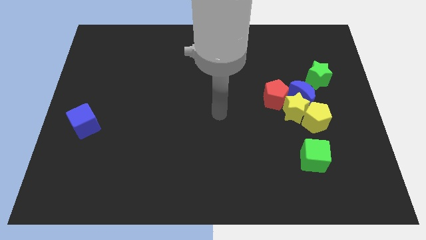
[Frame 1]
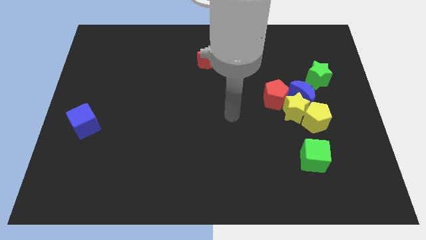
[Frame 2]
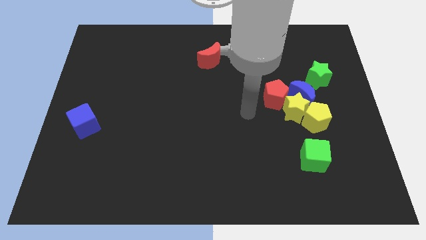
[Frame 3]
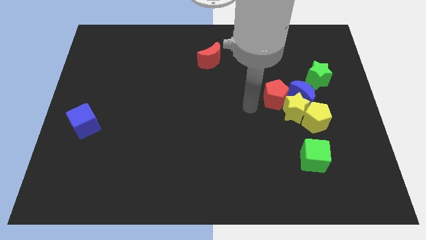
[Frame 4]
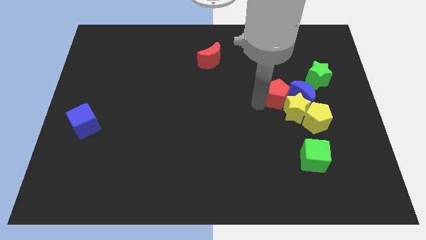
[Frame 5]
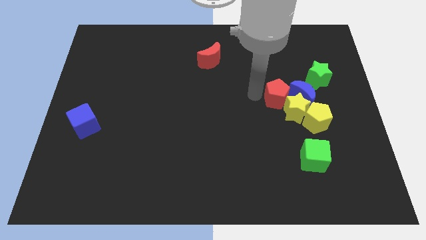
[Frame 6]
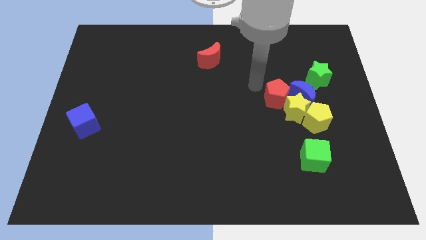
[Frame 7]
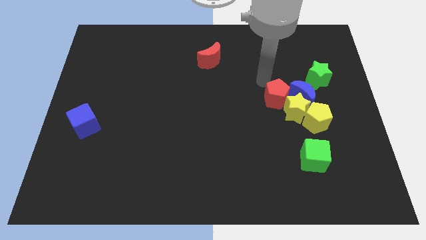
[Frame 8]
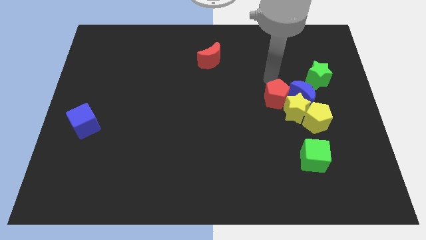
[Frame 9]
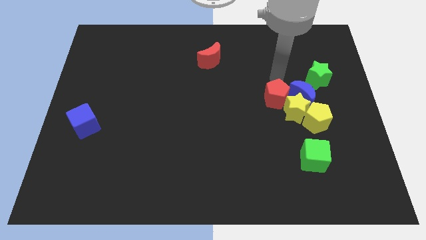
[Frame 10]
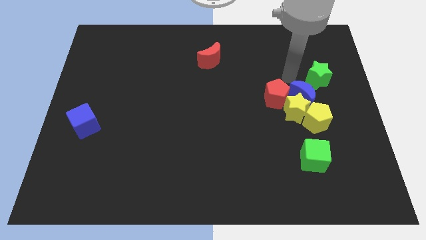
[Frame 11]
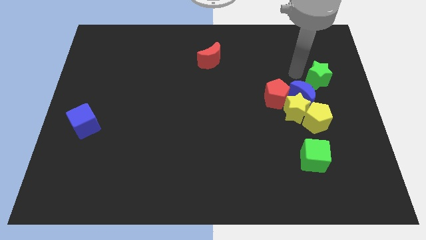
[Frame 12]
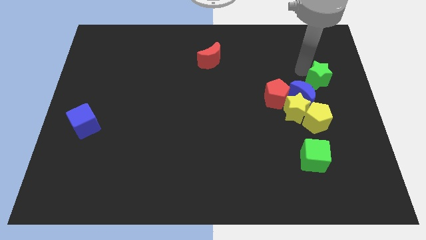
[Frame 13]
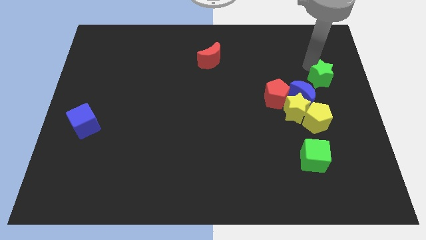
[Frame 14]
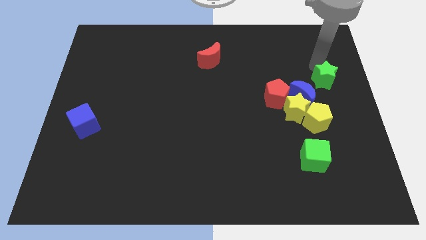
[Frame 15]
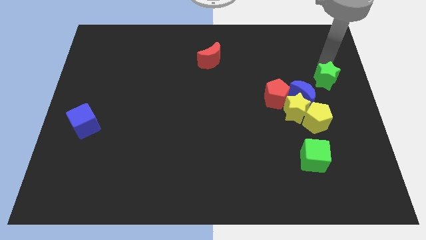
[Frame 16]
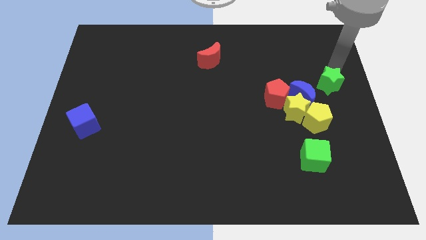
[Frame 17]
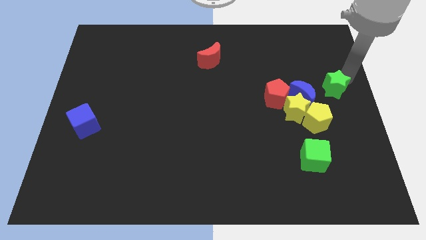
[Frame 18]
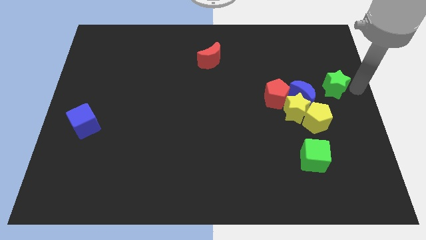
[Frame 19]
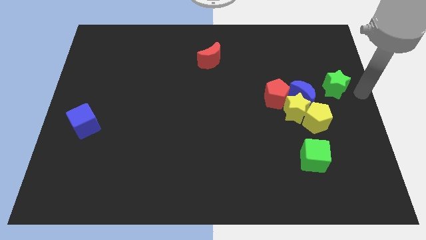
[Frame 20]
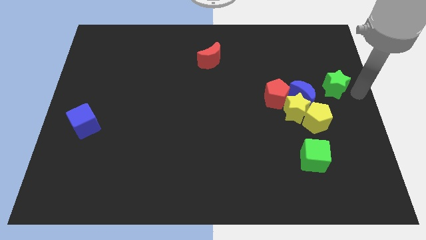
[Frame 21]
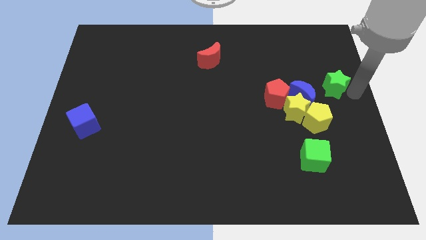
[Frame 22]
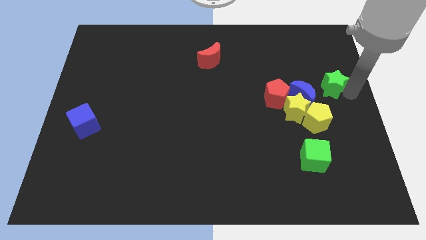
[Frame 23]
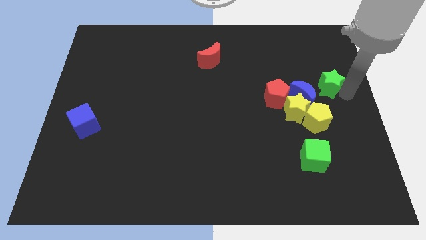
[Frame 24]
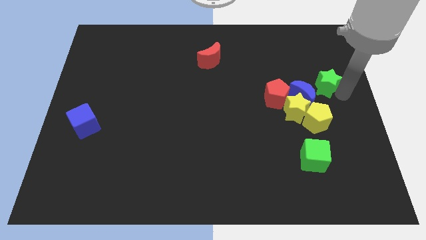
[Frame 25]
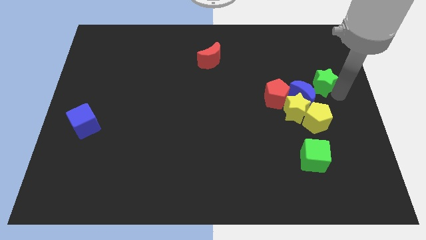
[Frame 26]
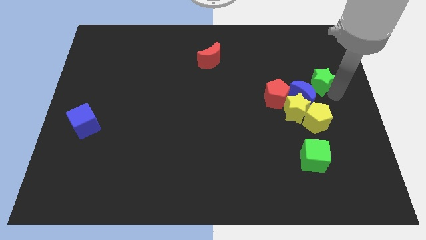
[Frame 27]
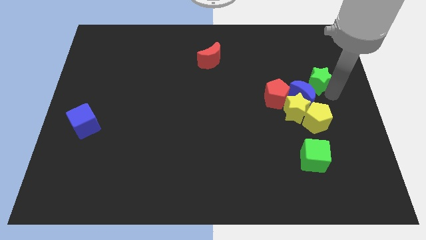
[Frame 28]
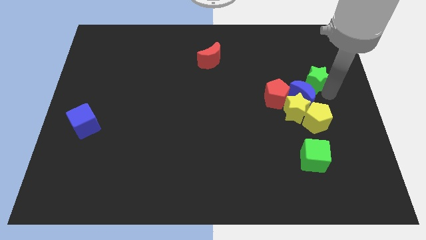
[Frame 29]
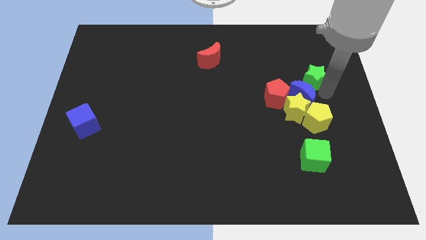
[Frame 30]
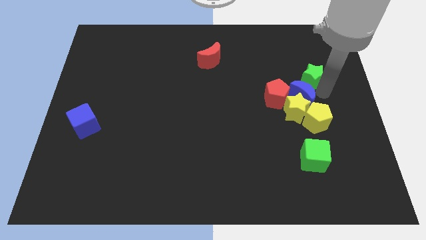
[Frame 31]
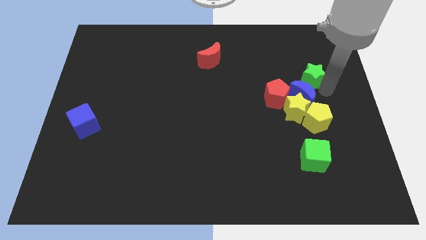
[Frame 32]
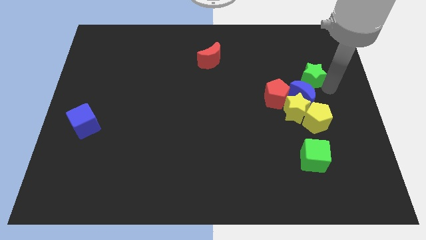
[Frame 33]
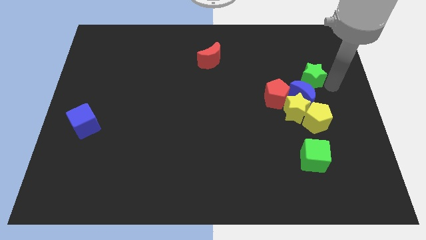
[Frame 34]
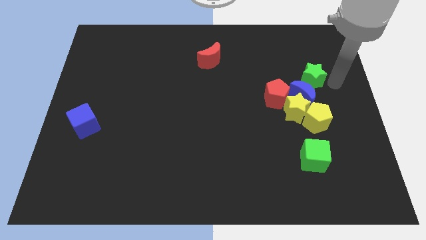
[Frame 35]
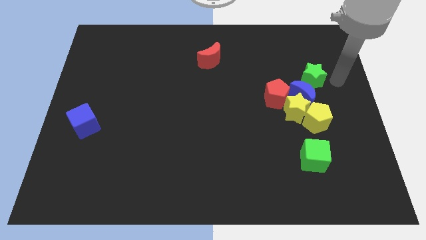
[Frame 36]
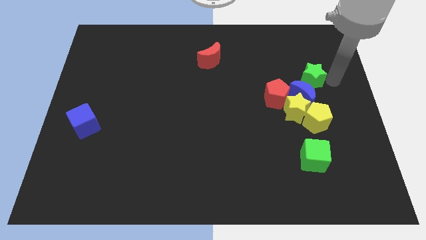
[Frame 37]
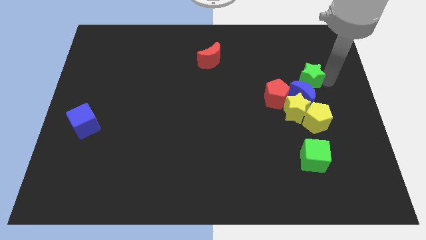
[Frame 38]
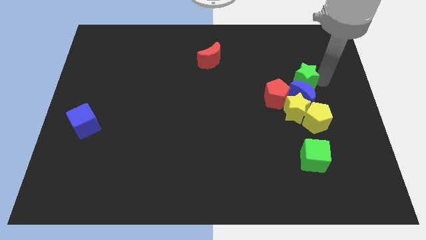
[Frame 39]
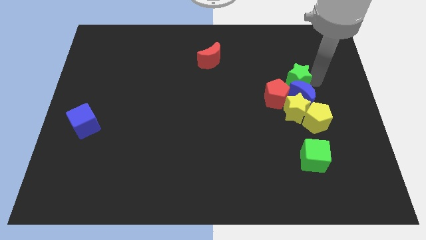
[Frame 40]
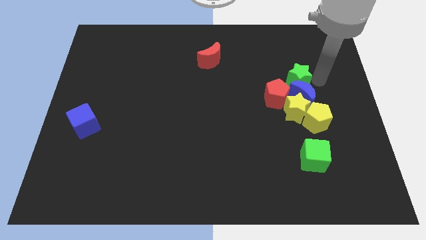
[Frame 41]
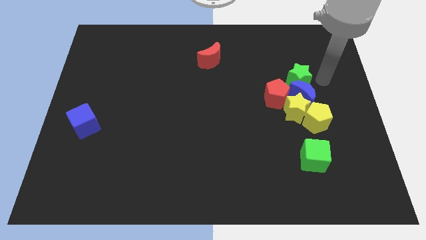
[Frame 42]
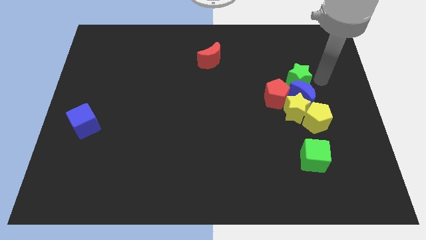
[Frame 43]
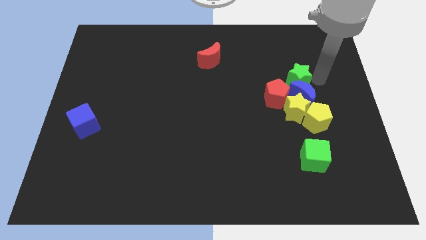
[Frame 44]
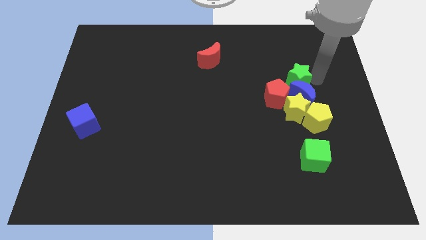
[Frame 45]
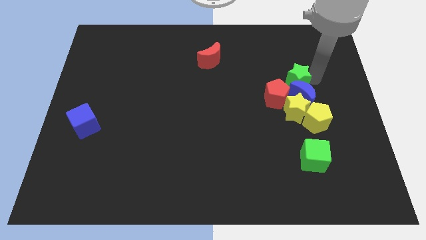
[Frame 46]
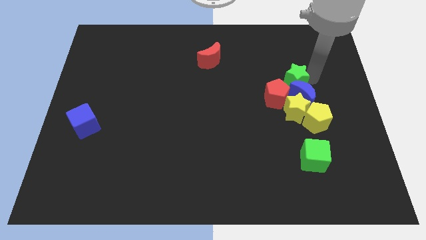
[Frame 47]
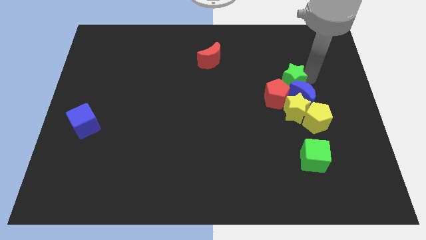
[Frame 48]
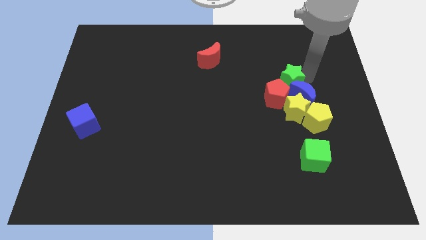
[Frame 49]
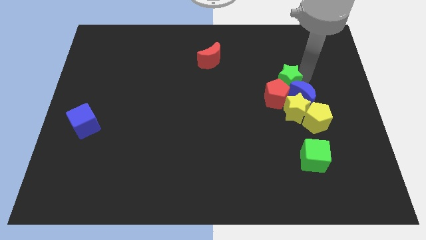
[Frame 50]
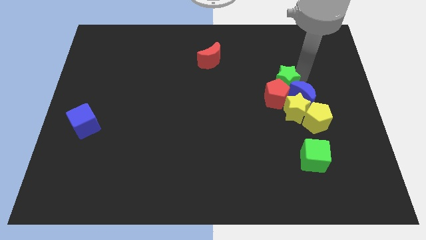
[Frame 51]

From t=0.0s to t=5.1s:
slide the green star left of the blue moon

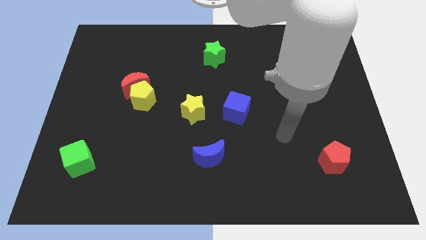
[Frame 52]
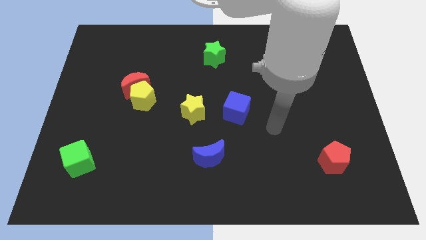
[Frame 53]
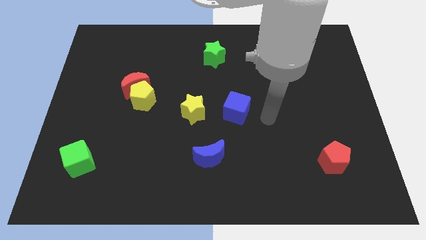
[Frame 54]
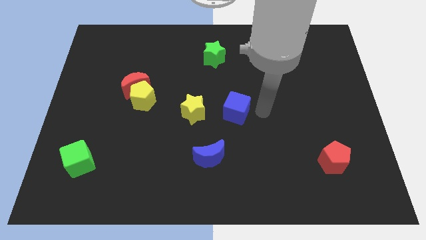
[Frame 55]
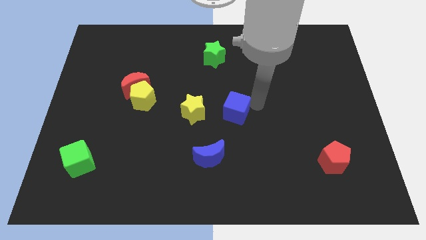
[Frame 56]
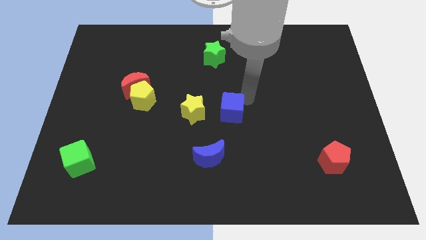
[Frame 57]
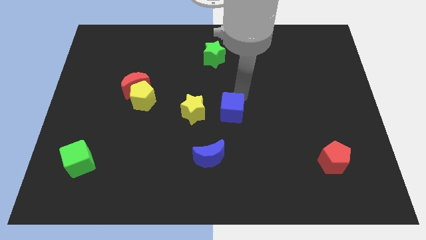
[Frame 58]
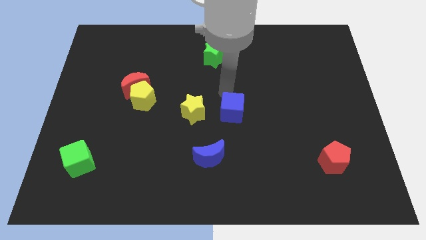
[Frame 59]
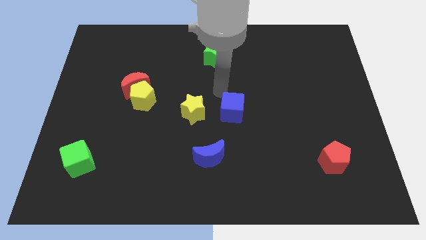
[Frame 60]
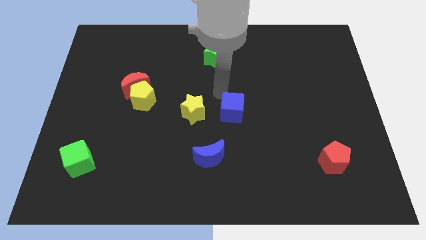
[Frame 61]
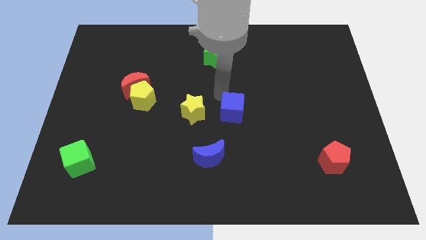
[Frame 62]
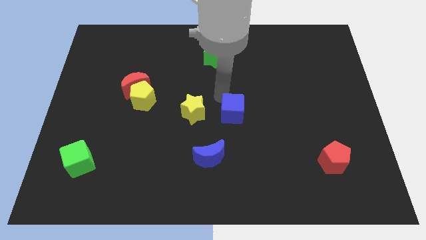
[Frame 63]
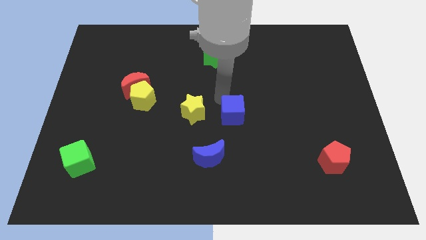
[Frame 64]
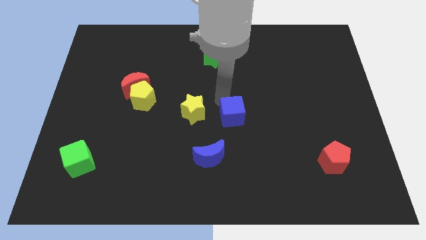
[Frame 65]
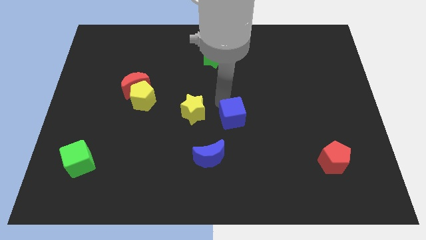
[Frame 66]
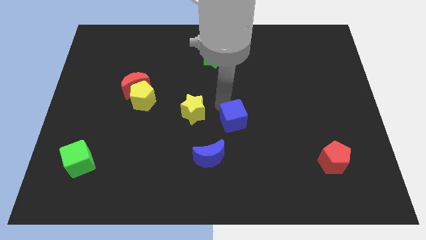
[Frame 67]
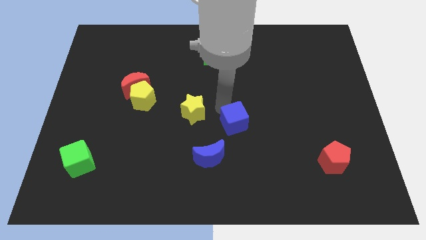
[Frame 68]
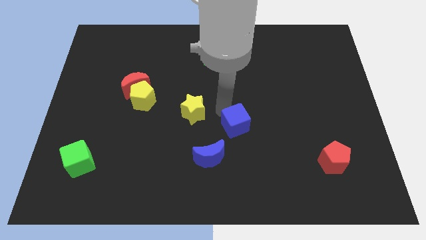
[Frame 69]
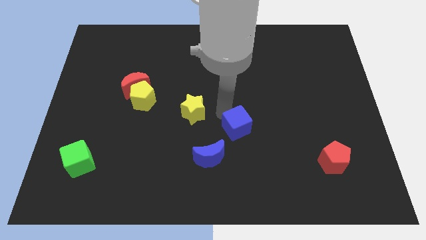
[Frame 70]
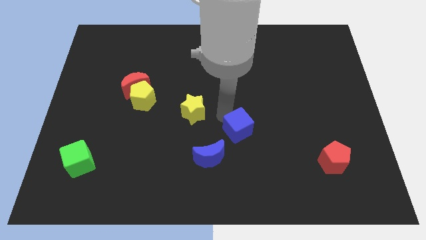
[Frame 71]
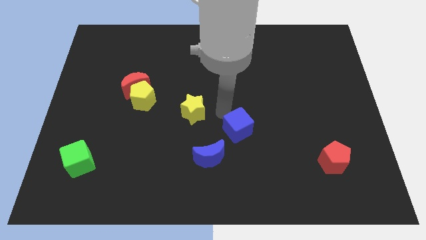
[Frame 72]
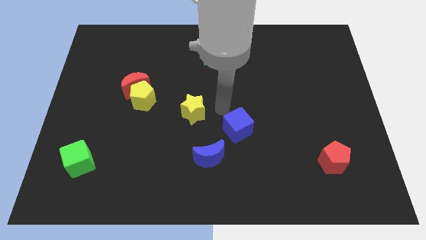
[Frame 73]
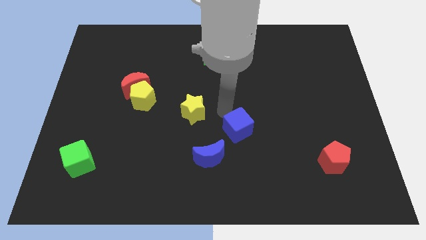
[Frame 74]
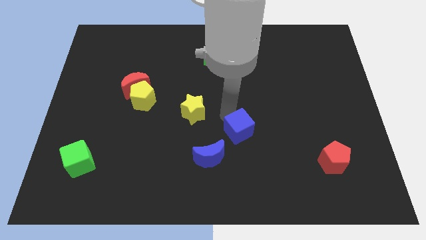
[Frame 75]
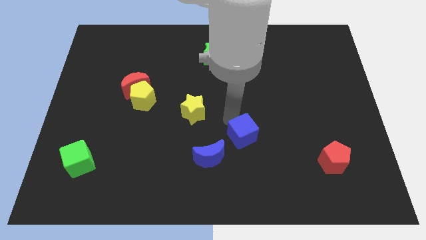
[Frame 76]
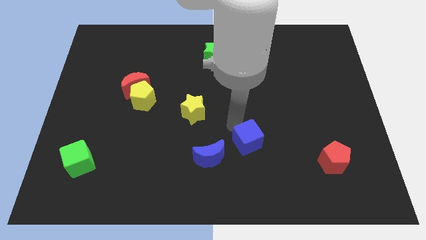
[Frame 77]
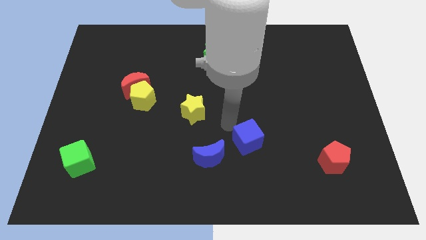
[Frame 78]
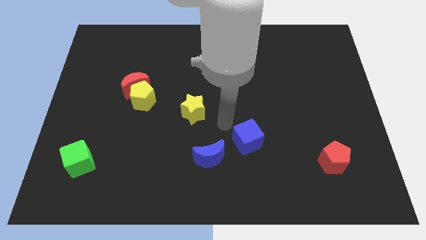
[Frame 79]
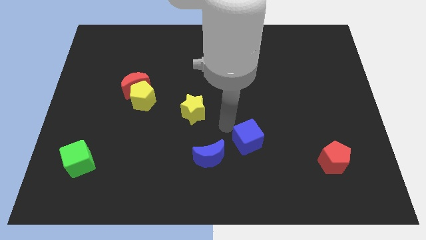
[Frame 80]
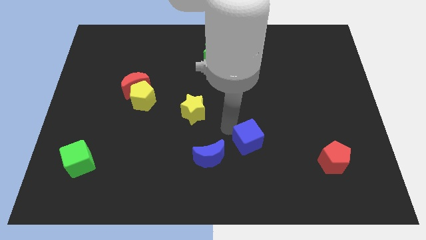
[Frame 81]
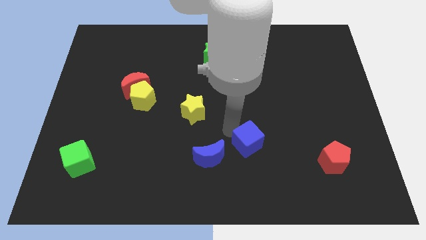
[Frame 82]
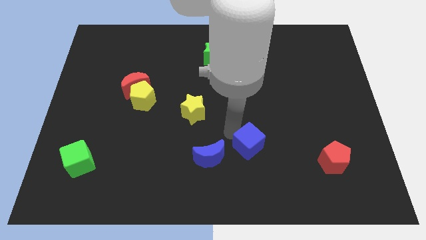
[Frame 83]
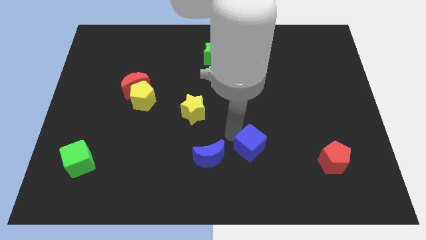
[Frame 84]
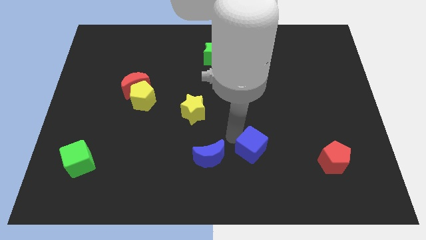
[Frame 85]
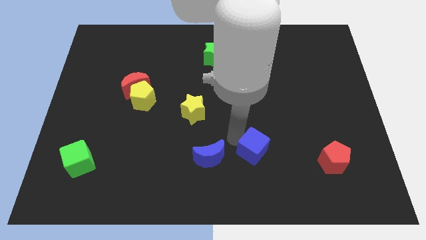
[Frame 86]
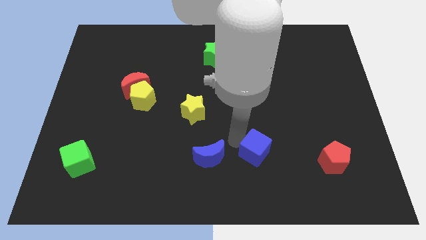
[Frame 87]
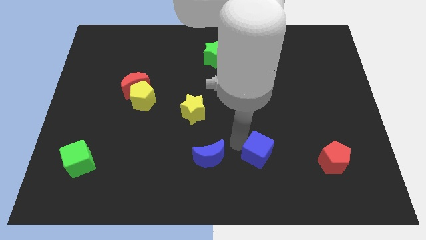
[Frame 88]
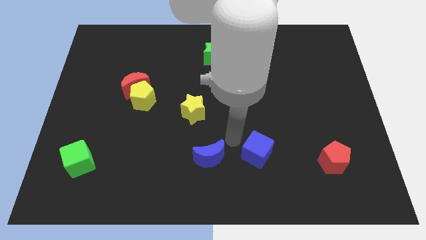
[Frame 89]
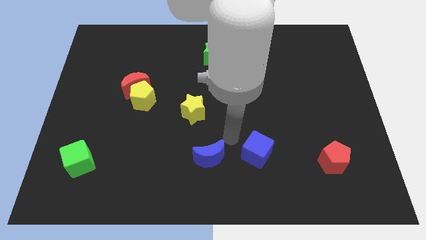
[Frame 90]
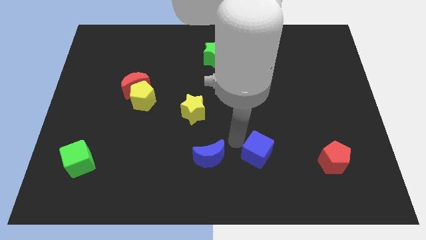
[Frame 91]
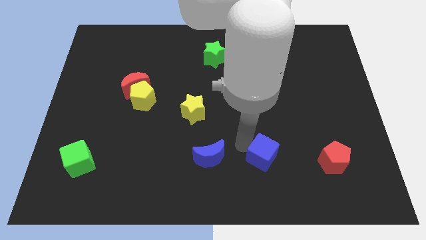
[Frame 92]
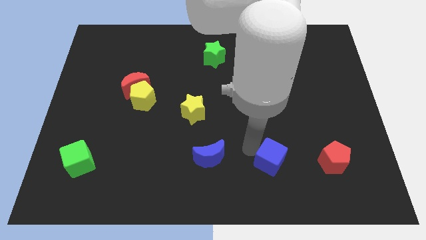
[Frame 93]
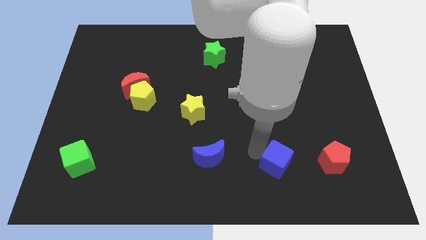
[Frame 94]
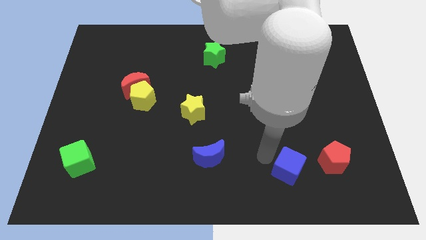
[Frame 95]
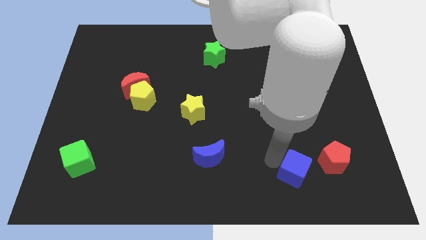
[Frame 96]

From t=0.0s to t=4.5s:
slide the blue cube diagonally down and to the left of the red pentagon
